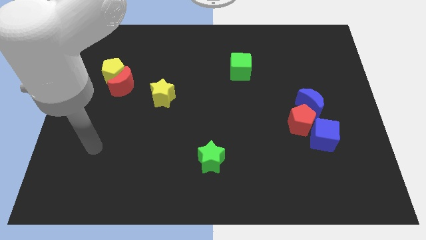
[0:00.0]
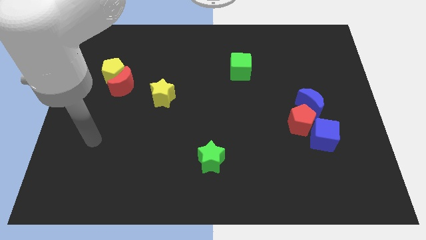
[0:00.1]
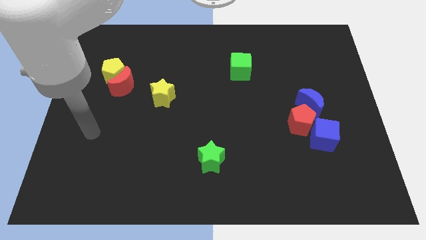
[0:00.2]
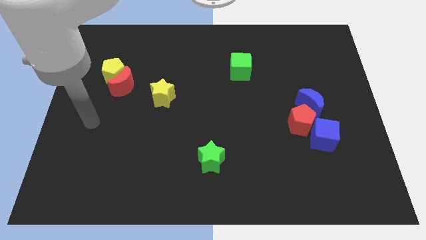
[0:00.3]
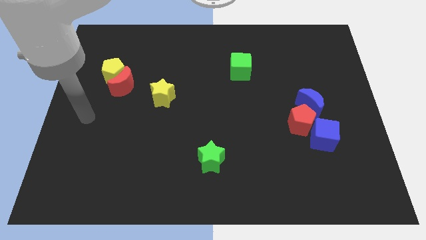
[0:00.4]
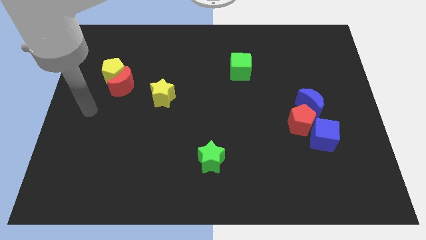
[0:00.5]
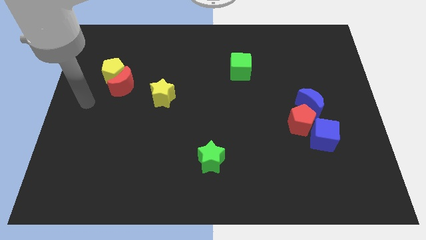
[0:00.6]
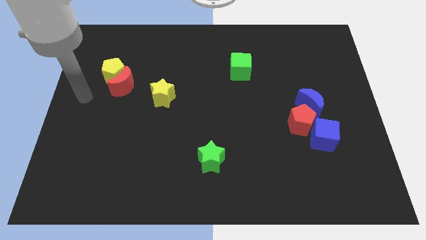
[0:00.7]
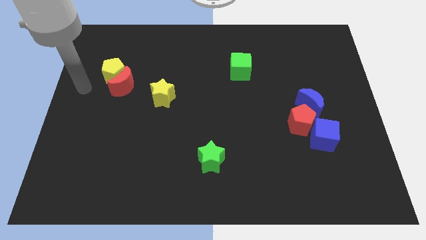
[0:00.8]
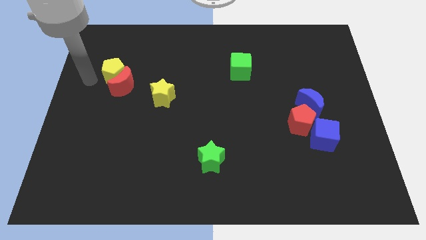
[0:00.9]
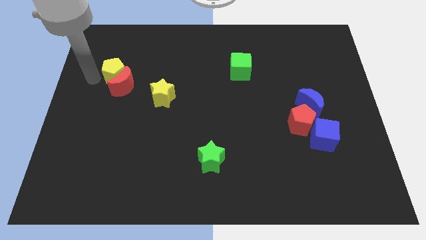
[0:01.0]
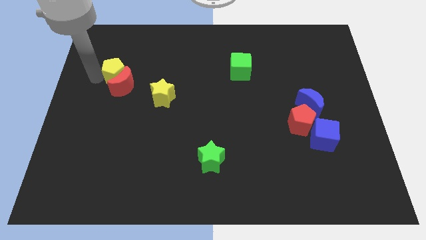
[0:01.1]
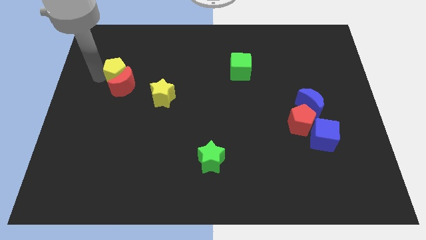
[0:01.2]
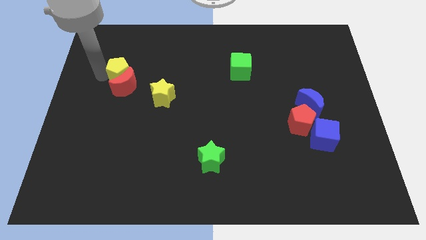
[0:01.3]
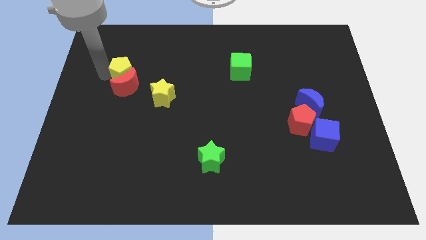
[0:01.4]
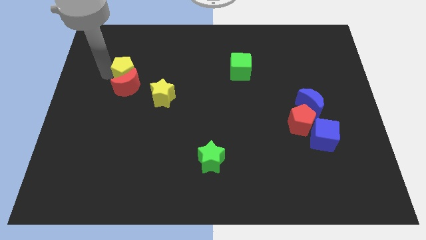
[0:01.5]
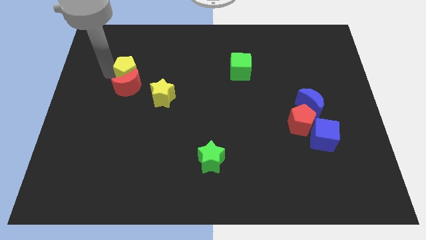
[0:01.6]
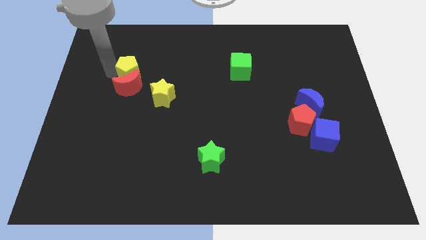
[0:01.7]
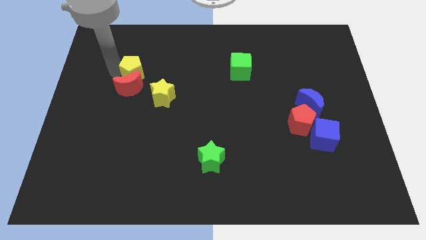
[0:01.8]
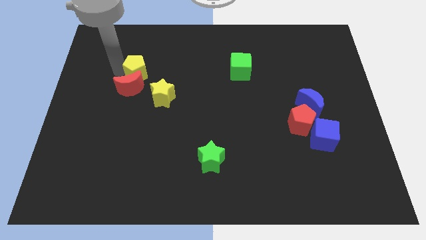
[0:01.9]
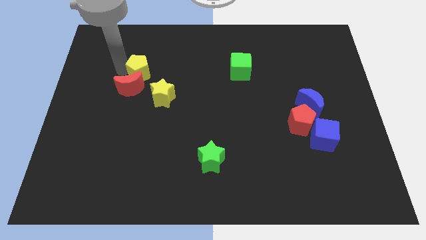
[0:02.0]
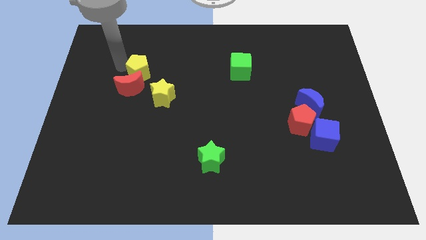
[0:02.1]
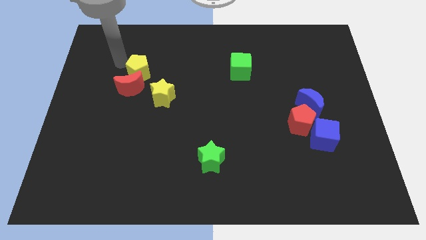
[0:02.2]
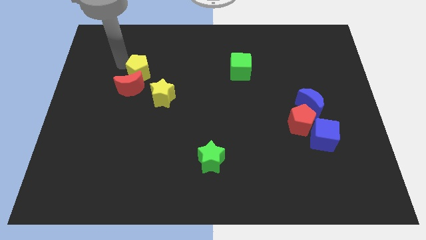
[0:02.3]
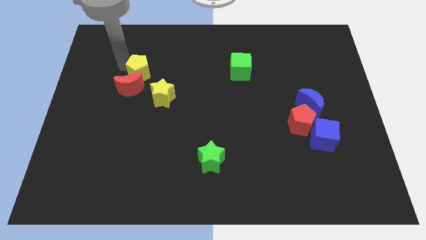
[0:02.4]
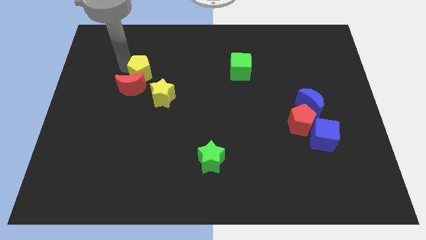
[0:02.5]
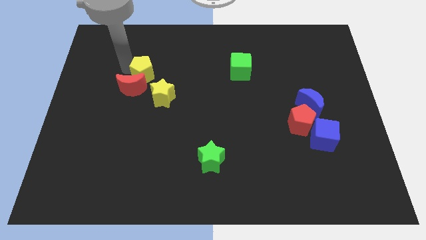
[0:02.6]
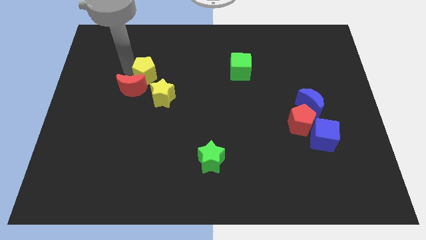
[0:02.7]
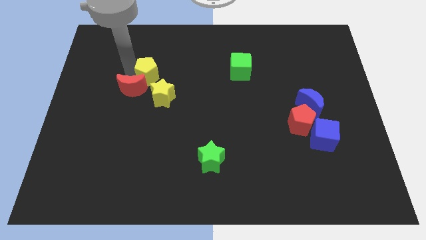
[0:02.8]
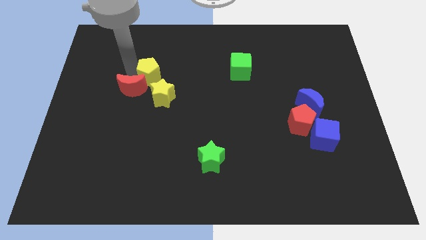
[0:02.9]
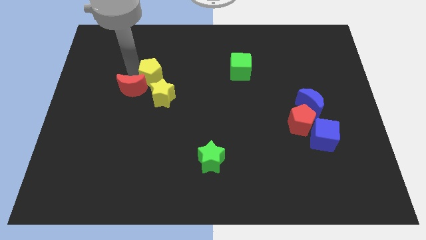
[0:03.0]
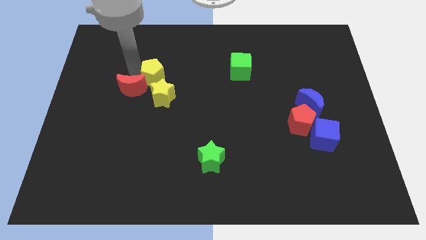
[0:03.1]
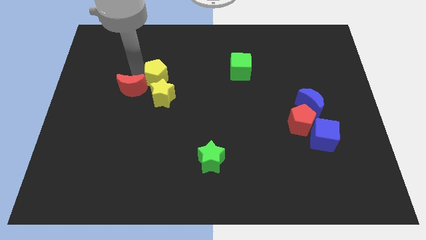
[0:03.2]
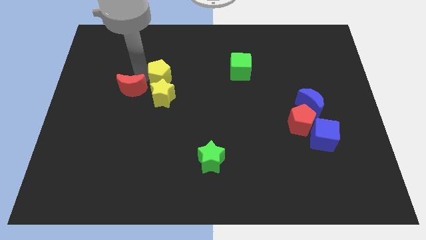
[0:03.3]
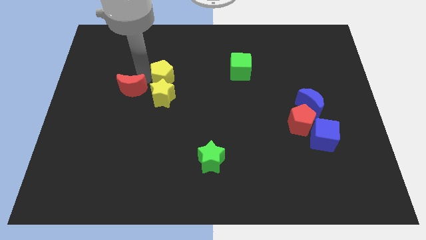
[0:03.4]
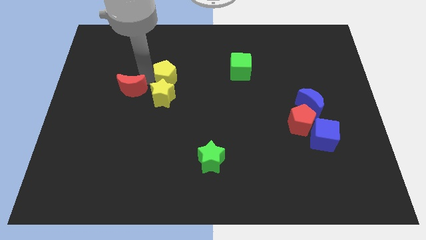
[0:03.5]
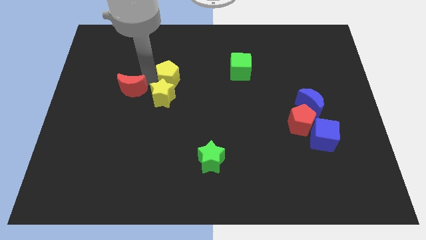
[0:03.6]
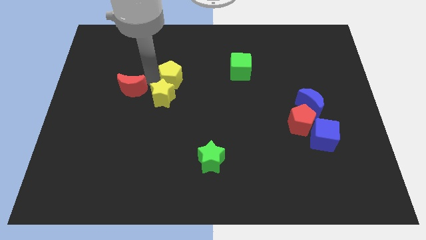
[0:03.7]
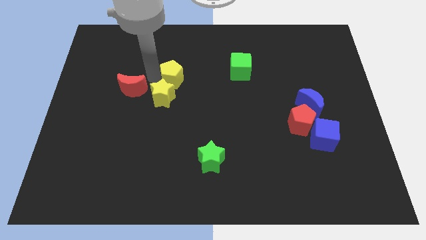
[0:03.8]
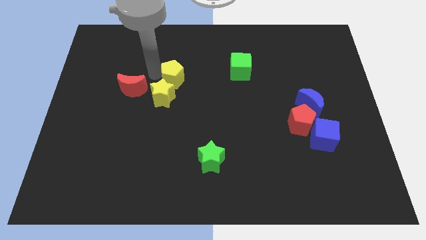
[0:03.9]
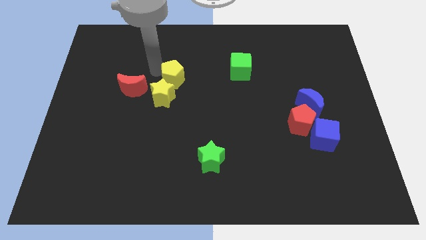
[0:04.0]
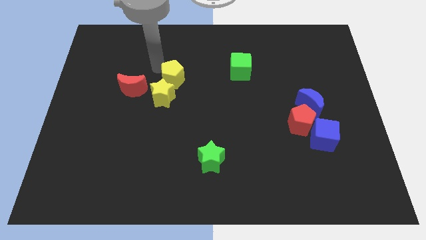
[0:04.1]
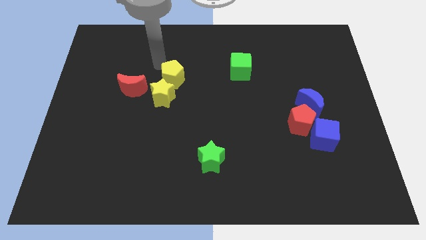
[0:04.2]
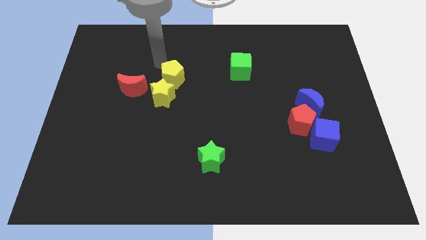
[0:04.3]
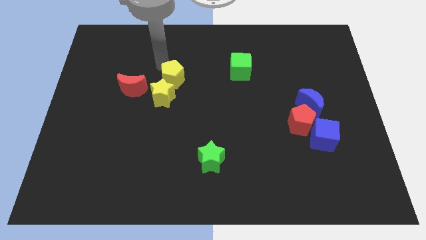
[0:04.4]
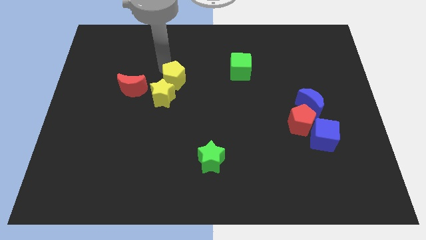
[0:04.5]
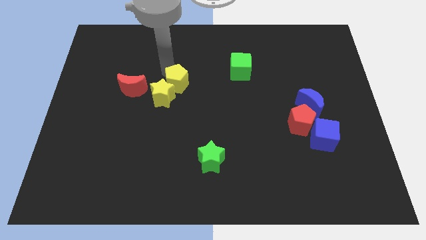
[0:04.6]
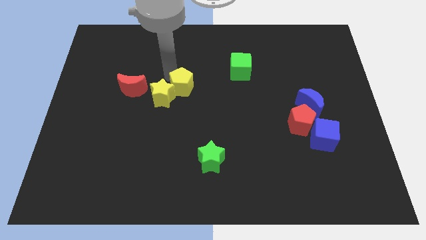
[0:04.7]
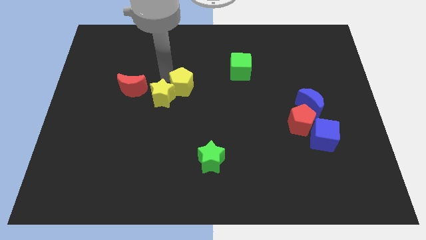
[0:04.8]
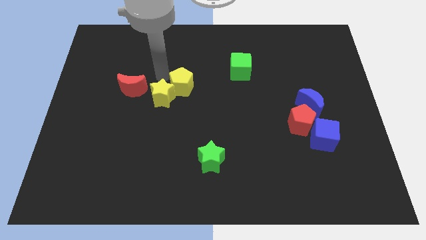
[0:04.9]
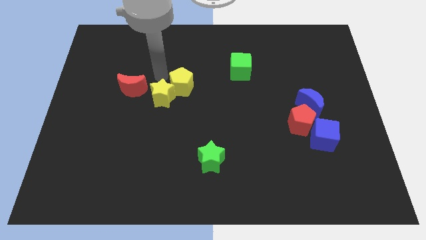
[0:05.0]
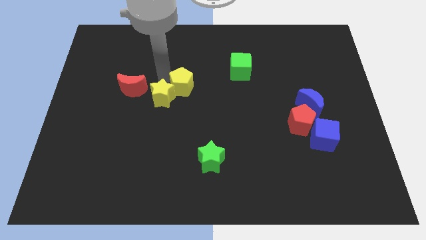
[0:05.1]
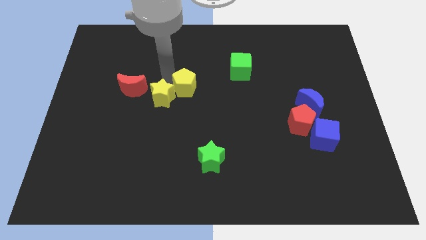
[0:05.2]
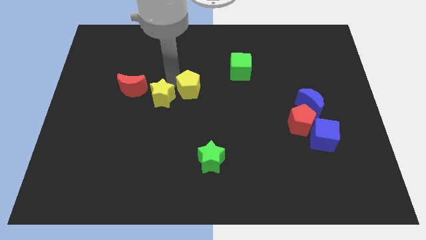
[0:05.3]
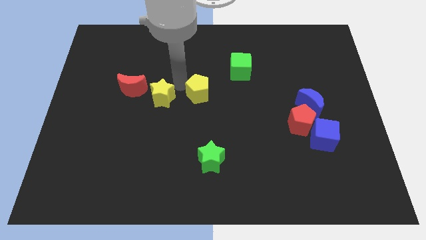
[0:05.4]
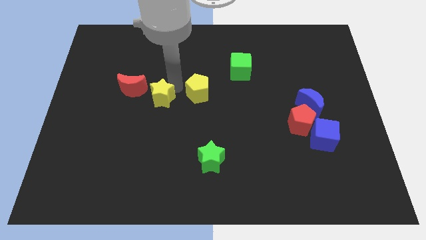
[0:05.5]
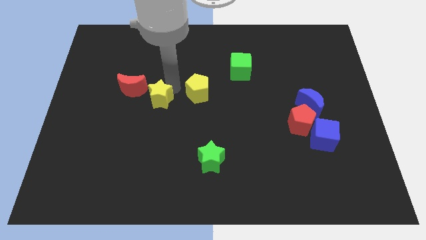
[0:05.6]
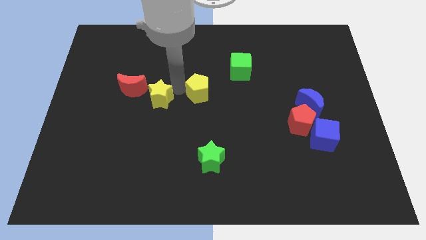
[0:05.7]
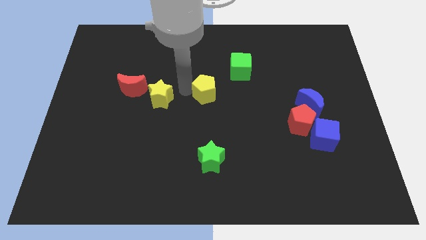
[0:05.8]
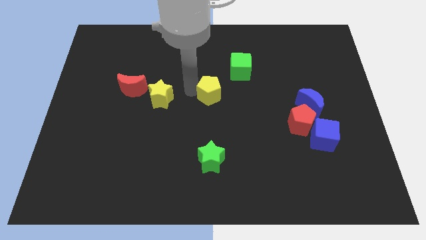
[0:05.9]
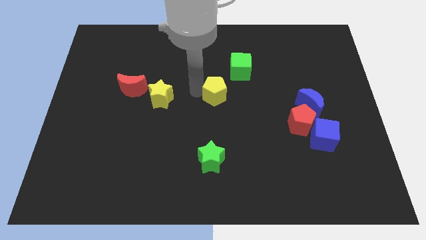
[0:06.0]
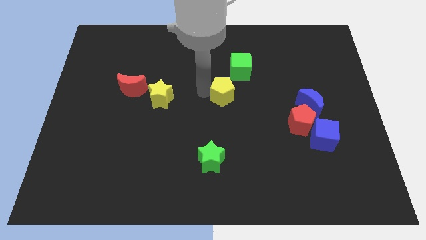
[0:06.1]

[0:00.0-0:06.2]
push the yellow pentagon to the bottom side of the green cube

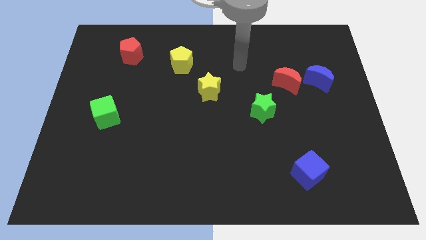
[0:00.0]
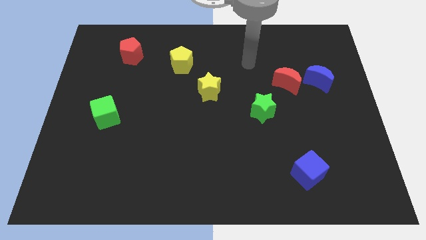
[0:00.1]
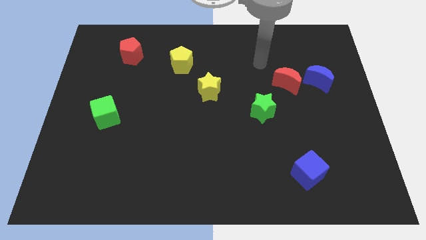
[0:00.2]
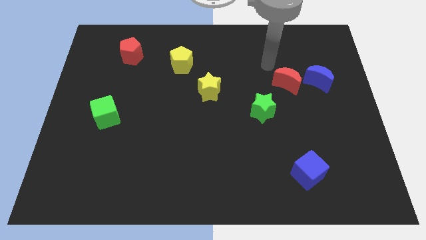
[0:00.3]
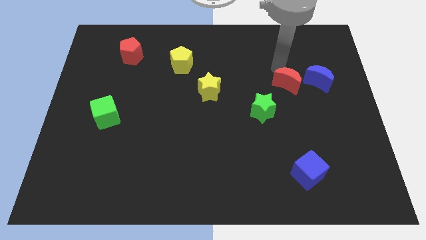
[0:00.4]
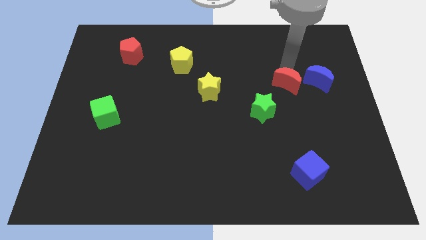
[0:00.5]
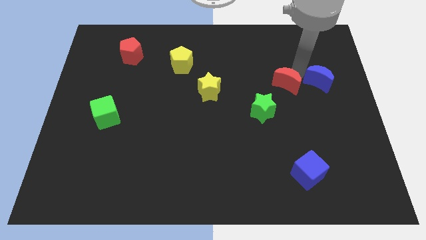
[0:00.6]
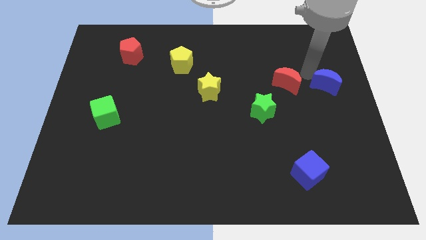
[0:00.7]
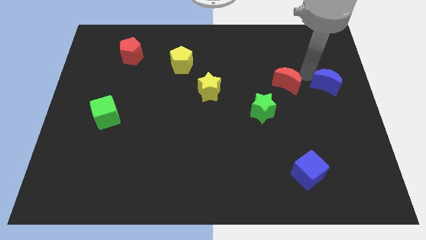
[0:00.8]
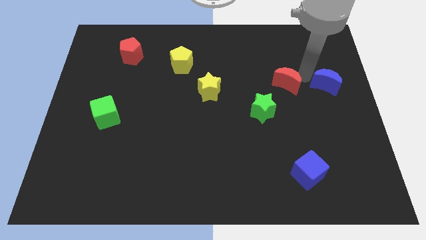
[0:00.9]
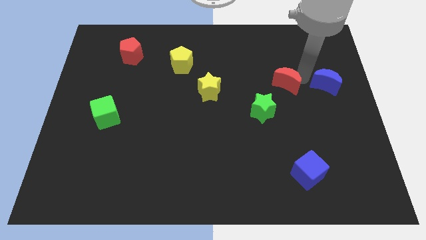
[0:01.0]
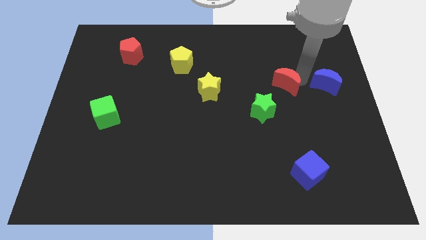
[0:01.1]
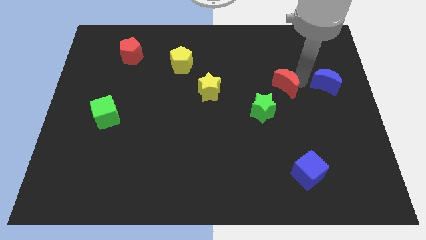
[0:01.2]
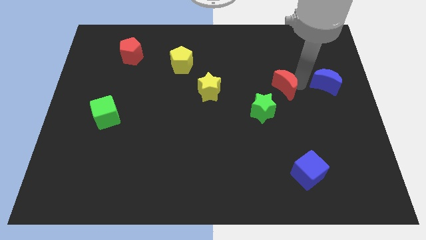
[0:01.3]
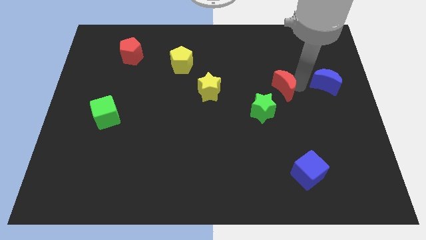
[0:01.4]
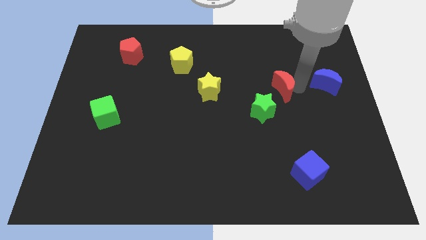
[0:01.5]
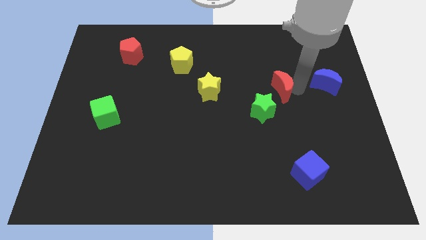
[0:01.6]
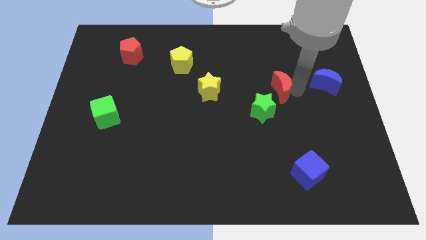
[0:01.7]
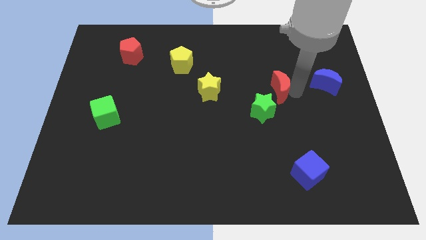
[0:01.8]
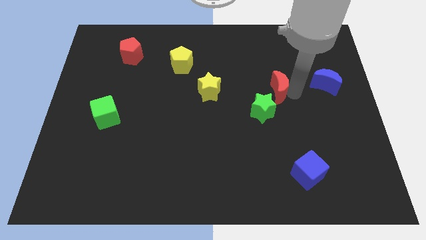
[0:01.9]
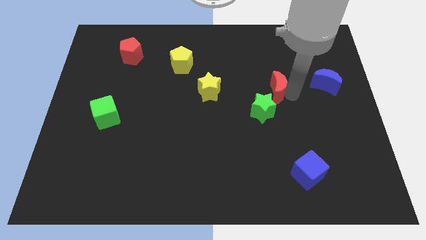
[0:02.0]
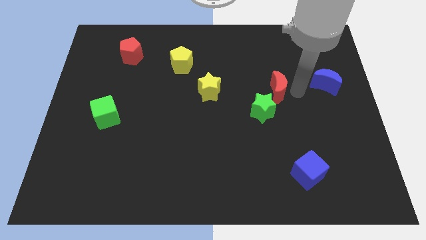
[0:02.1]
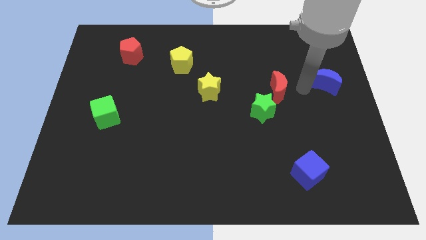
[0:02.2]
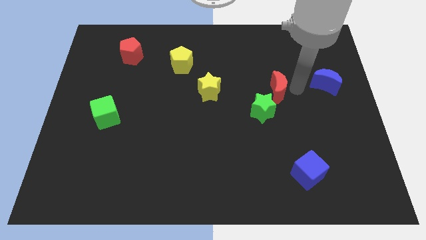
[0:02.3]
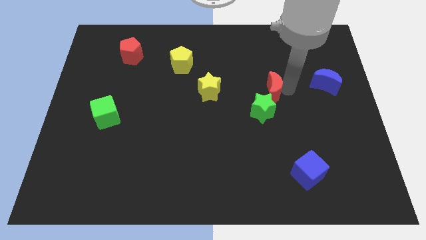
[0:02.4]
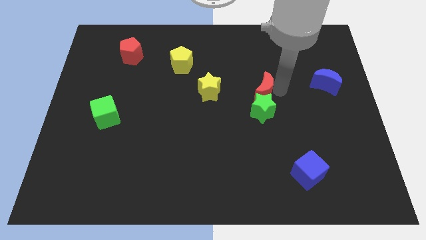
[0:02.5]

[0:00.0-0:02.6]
push the red moon to the top left side of the green star
